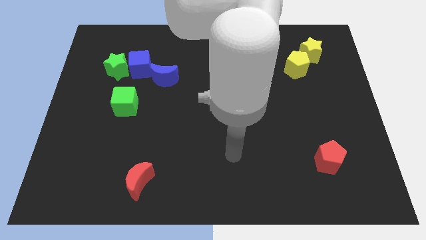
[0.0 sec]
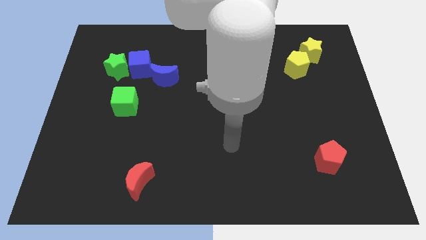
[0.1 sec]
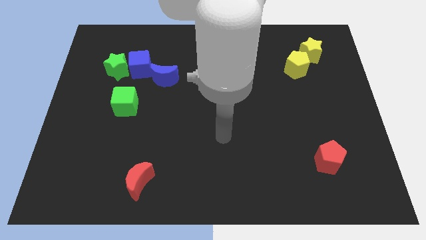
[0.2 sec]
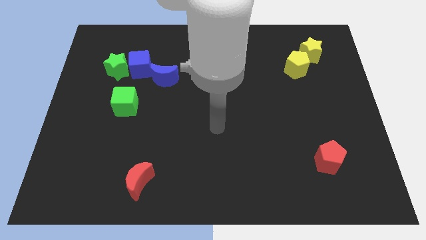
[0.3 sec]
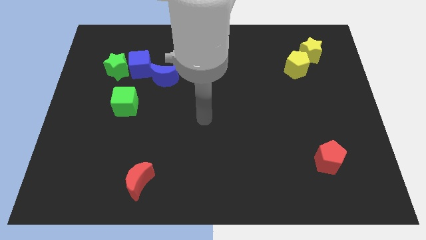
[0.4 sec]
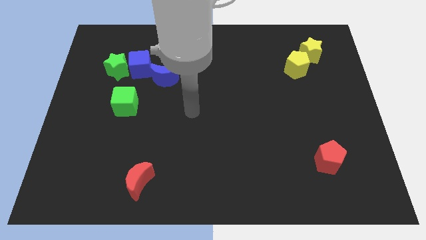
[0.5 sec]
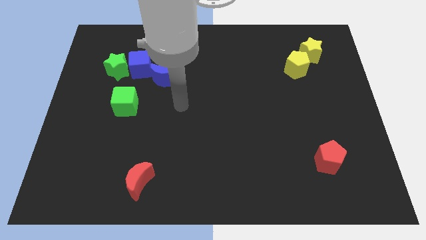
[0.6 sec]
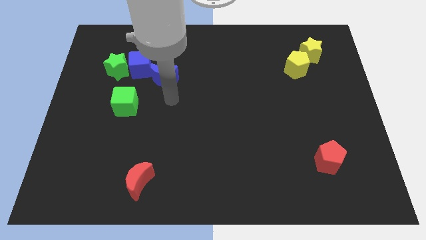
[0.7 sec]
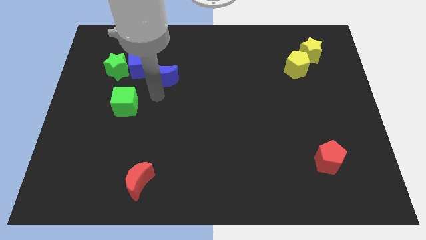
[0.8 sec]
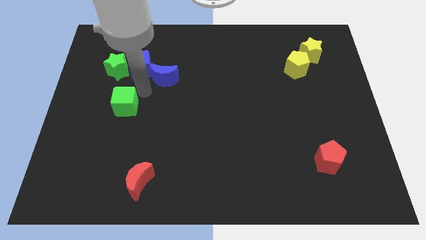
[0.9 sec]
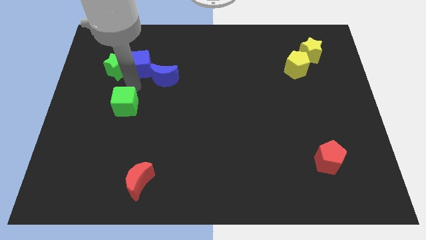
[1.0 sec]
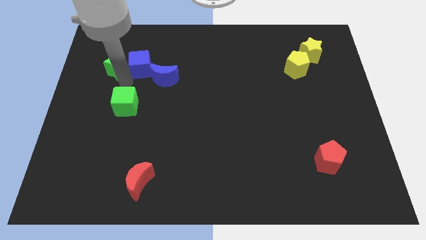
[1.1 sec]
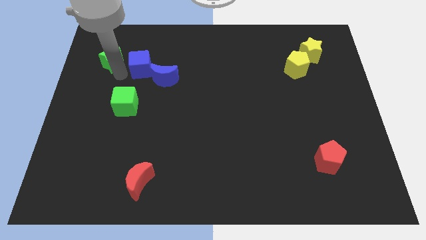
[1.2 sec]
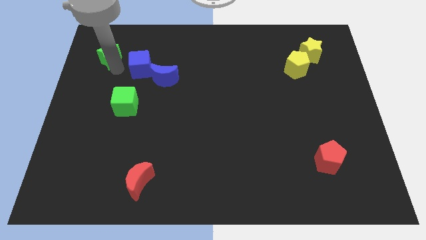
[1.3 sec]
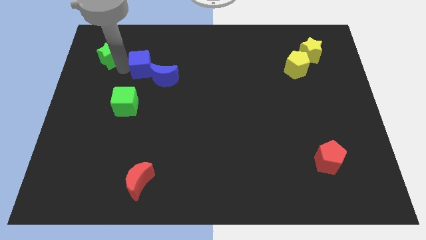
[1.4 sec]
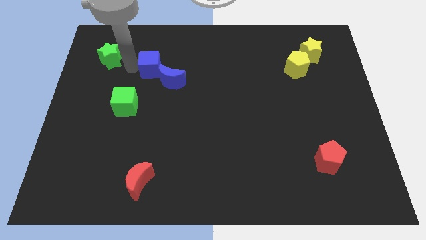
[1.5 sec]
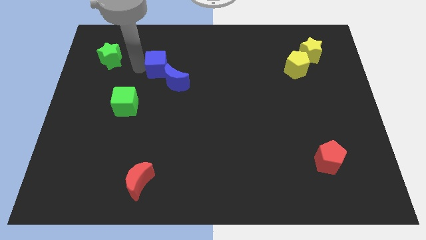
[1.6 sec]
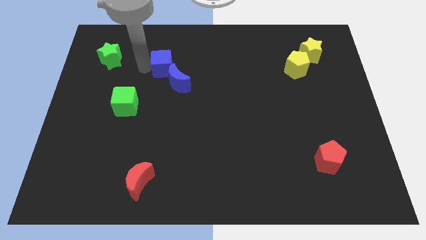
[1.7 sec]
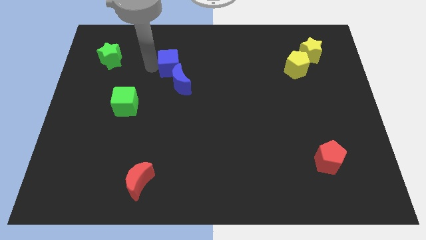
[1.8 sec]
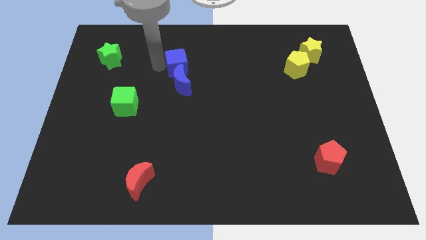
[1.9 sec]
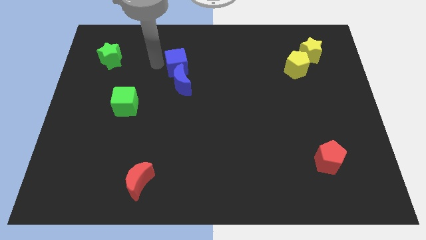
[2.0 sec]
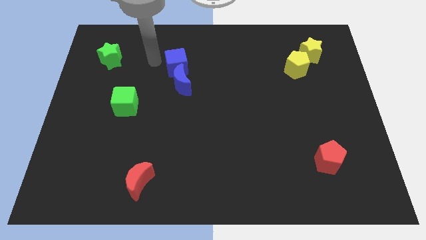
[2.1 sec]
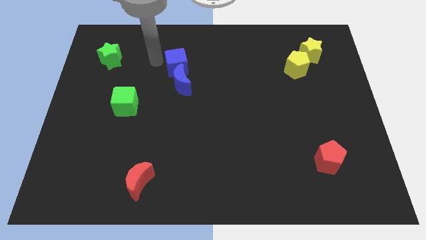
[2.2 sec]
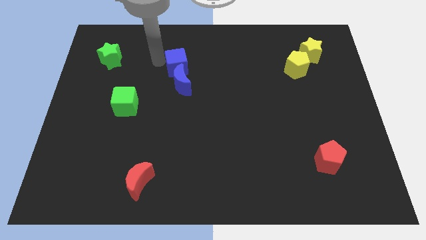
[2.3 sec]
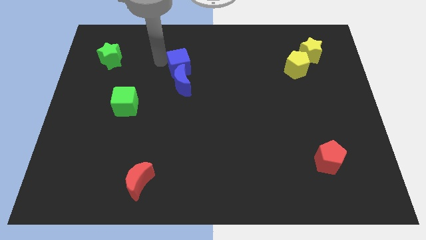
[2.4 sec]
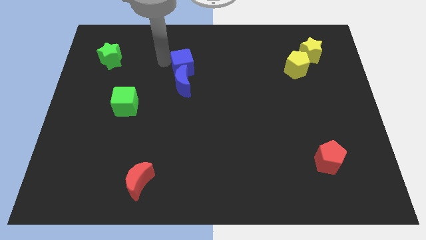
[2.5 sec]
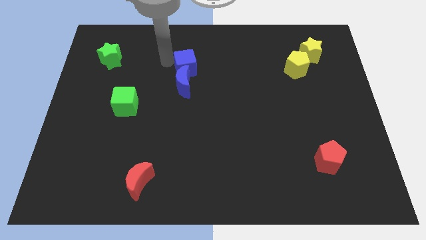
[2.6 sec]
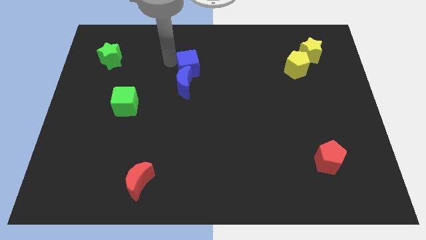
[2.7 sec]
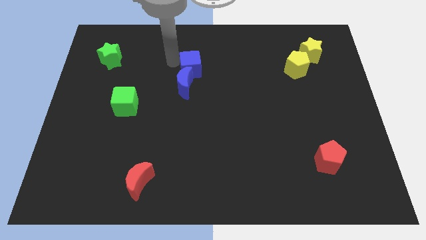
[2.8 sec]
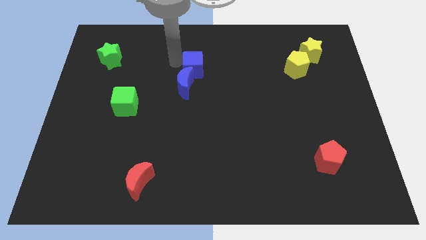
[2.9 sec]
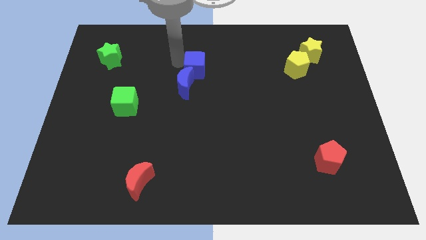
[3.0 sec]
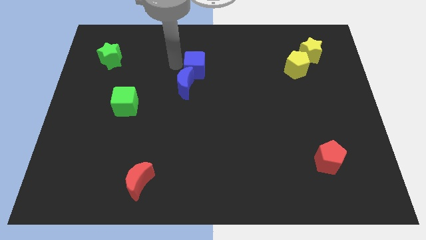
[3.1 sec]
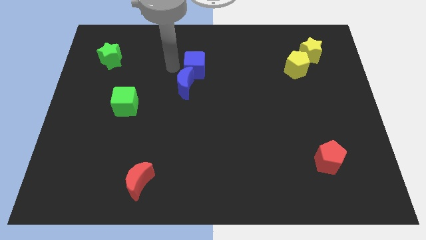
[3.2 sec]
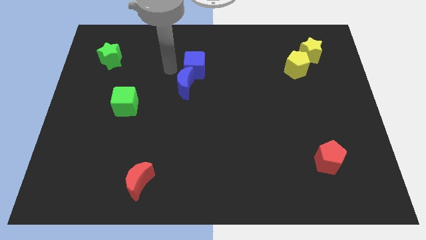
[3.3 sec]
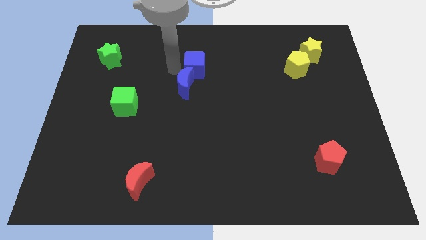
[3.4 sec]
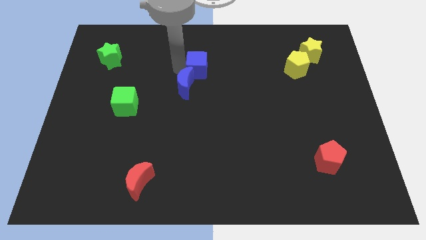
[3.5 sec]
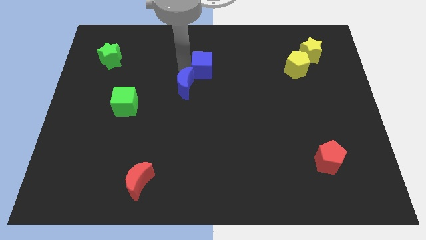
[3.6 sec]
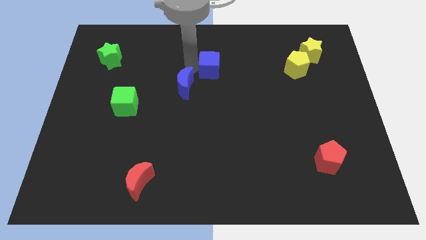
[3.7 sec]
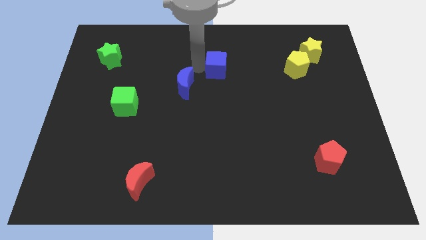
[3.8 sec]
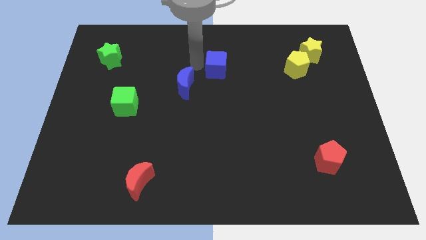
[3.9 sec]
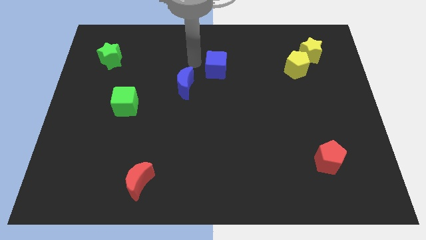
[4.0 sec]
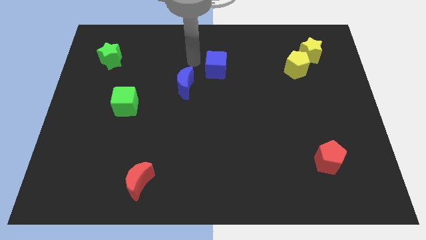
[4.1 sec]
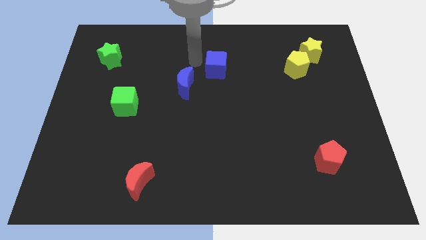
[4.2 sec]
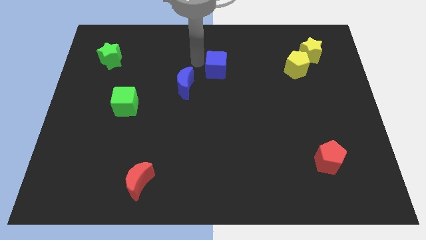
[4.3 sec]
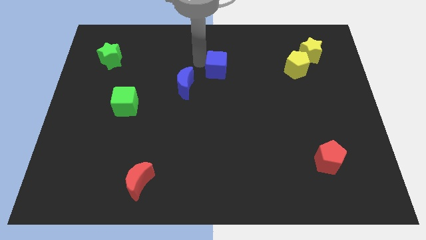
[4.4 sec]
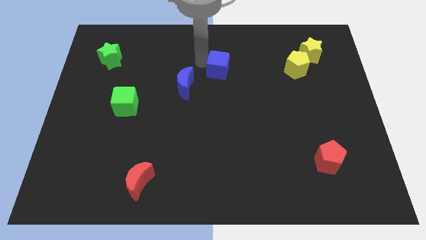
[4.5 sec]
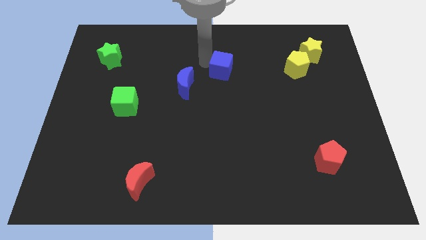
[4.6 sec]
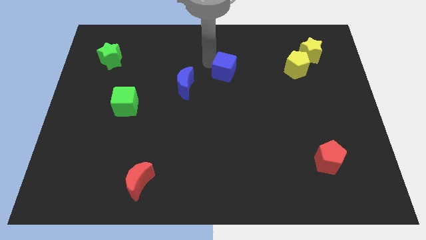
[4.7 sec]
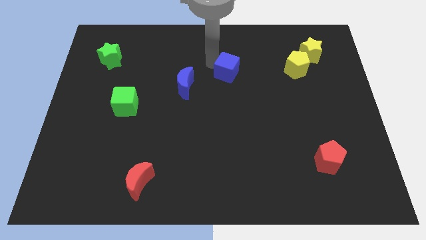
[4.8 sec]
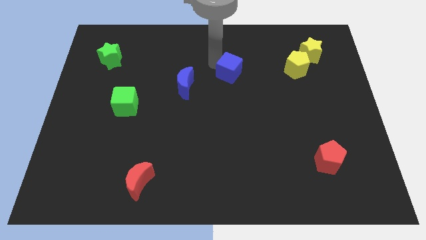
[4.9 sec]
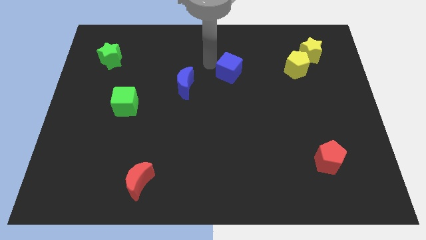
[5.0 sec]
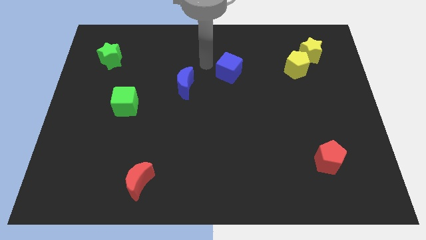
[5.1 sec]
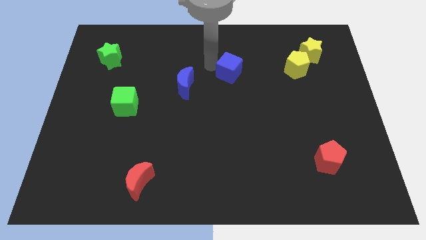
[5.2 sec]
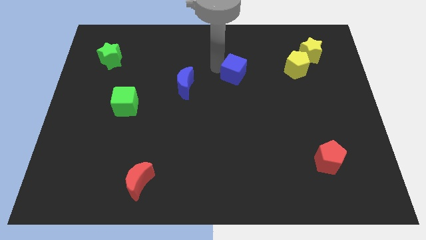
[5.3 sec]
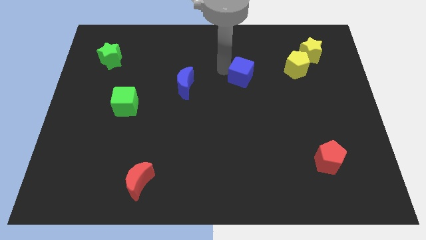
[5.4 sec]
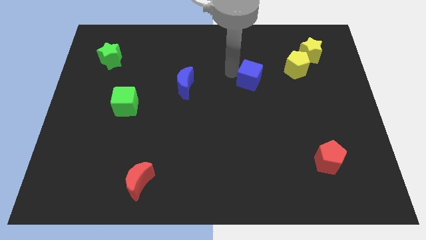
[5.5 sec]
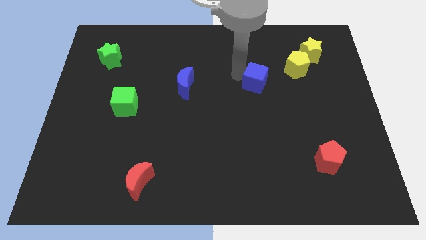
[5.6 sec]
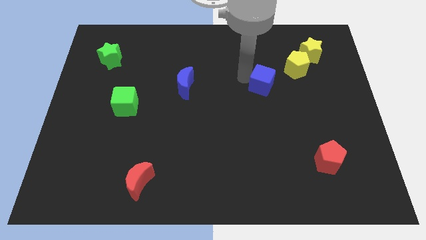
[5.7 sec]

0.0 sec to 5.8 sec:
slide the blue cube diagonally down and to the left of the yellow pentagon

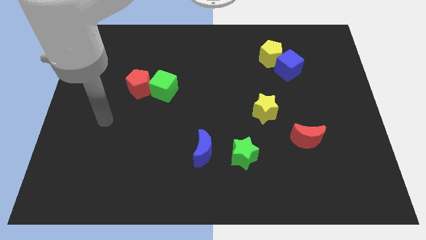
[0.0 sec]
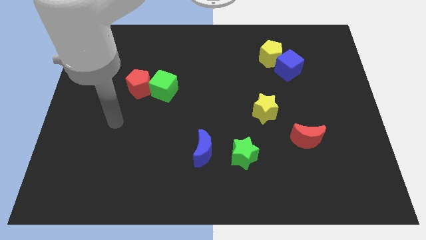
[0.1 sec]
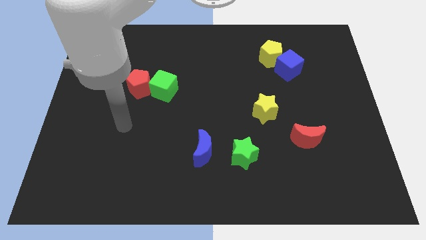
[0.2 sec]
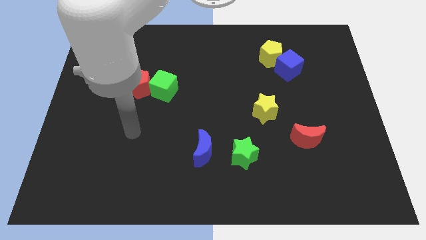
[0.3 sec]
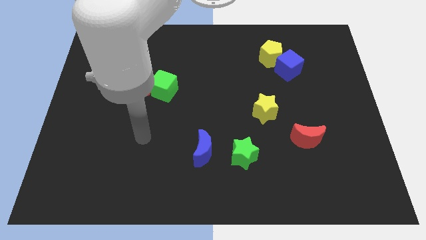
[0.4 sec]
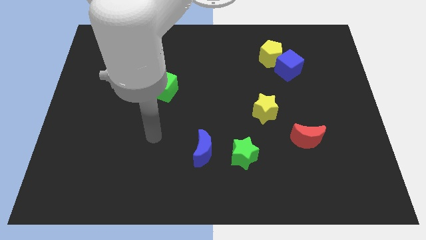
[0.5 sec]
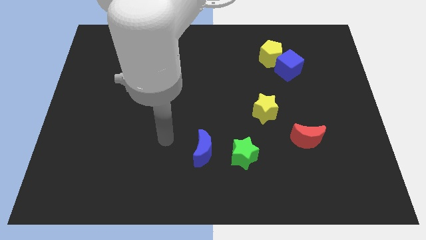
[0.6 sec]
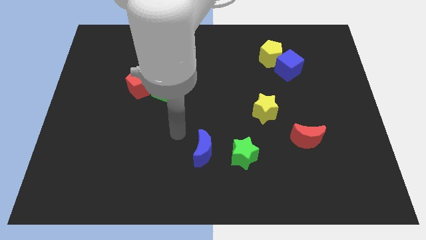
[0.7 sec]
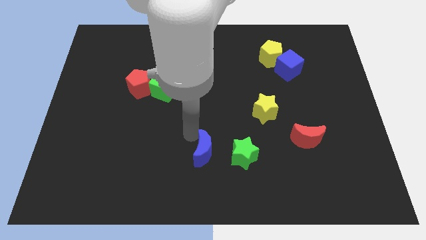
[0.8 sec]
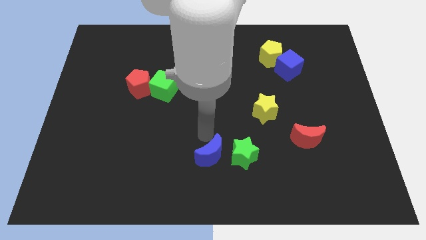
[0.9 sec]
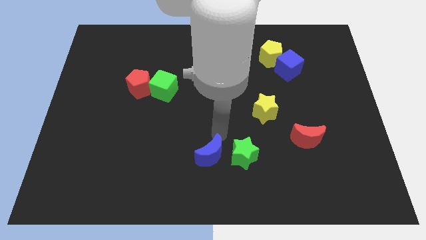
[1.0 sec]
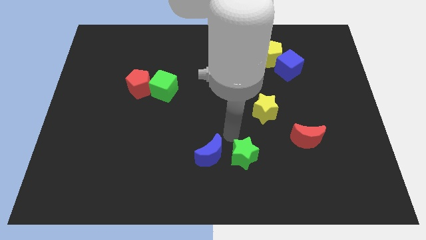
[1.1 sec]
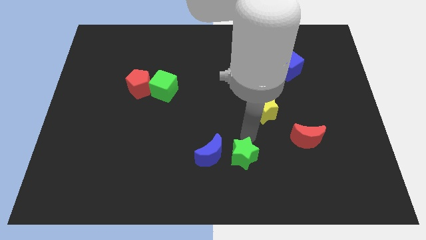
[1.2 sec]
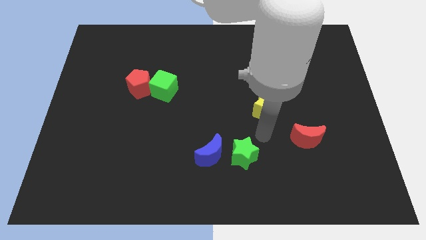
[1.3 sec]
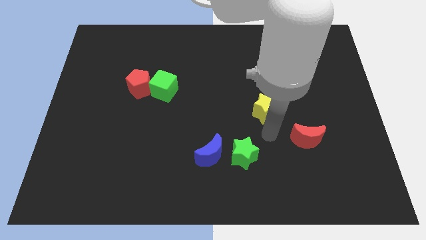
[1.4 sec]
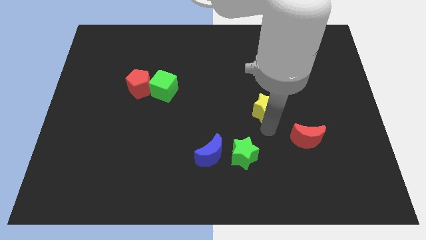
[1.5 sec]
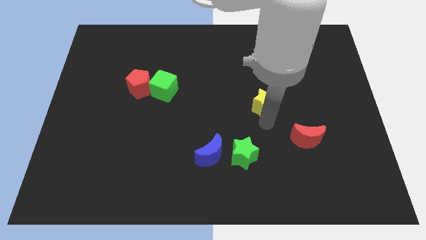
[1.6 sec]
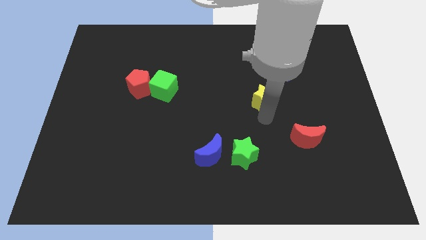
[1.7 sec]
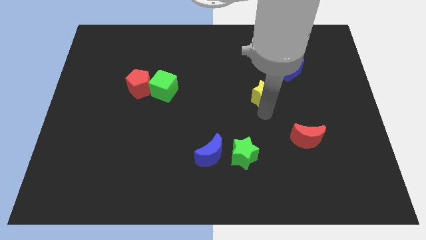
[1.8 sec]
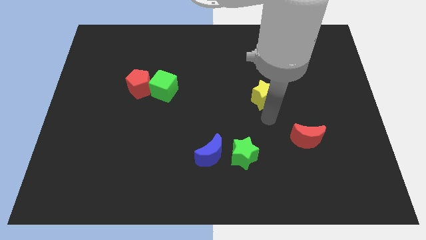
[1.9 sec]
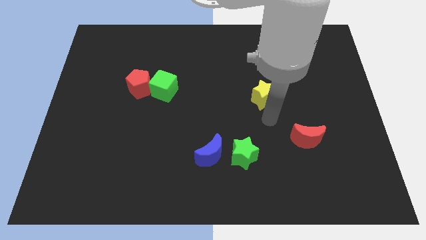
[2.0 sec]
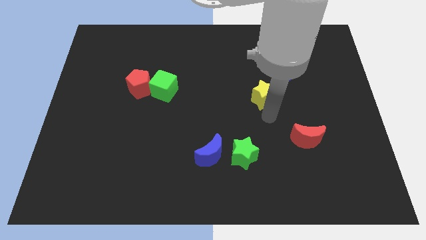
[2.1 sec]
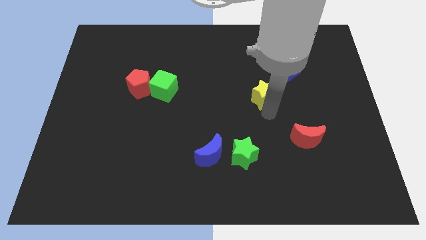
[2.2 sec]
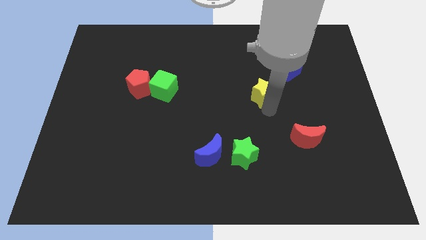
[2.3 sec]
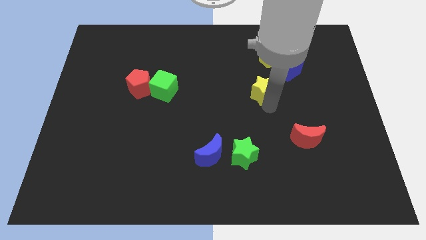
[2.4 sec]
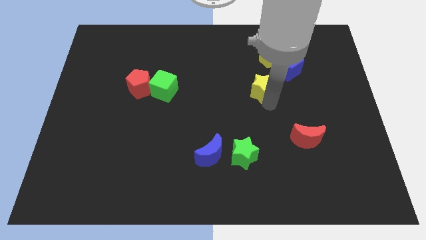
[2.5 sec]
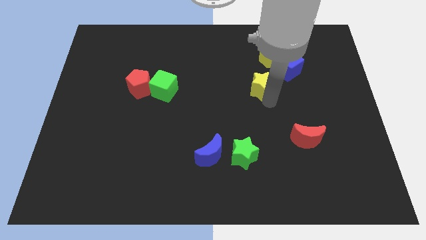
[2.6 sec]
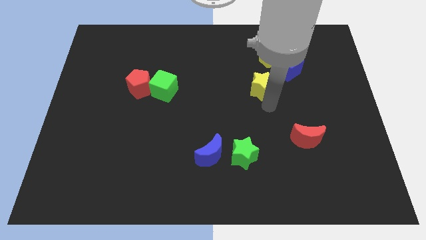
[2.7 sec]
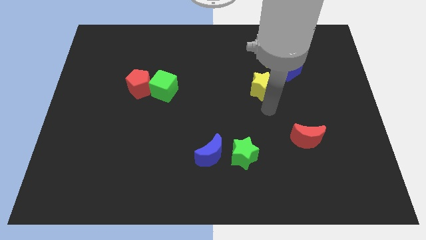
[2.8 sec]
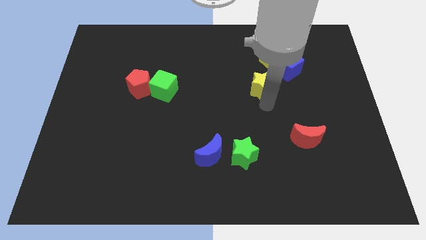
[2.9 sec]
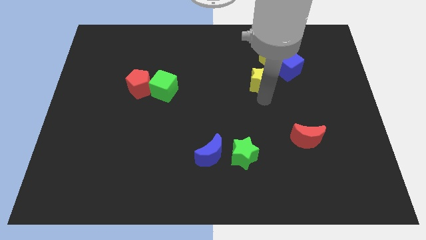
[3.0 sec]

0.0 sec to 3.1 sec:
push the yellow star diagonally down and to the left of the yellow pentagon
